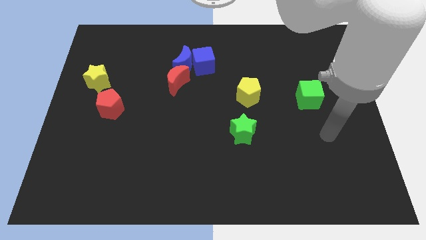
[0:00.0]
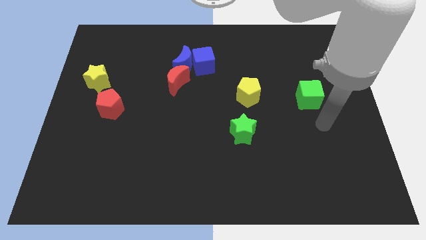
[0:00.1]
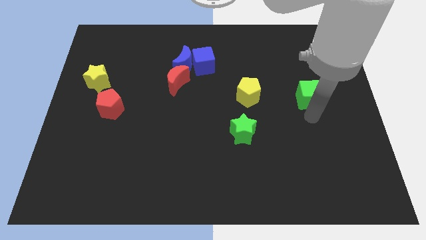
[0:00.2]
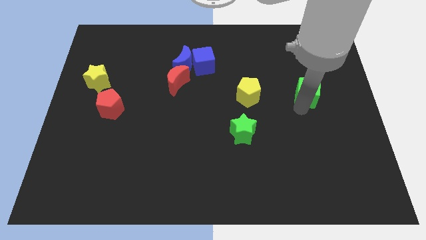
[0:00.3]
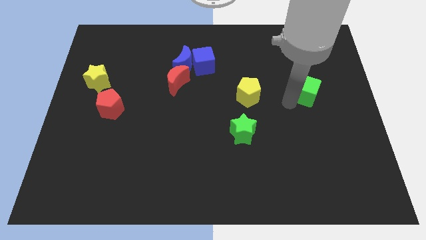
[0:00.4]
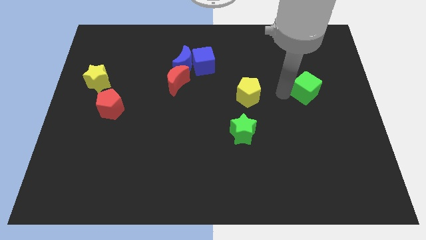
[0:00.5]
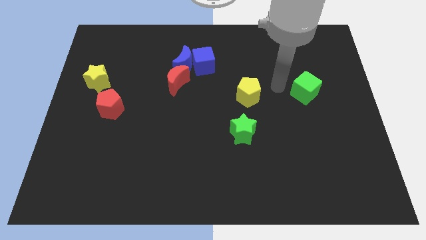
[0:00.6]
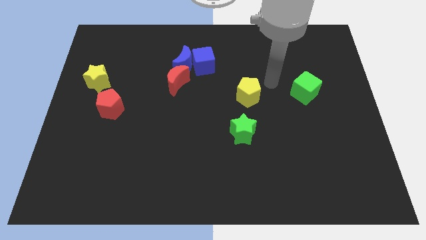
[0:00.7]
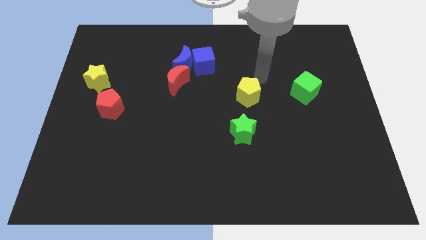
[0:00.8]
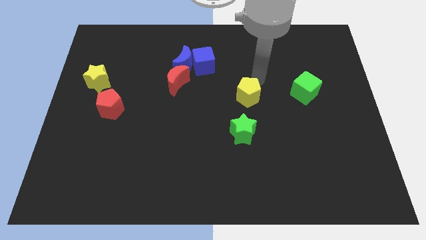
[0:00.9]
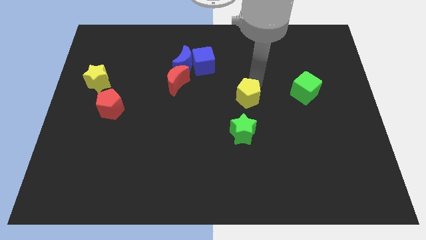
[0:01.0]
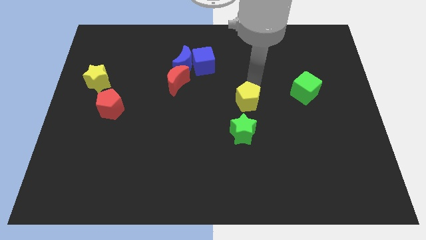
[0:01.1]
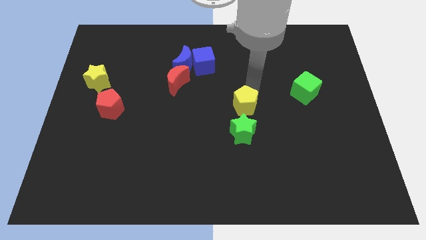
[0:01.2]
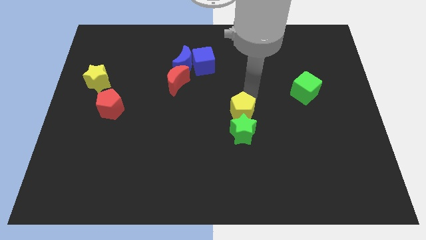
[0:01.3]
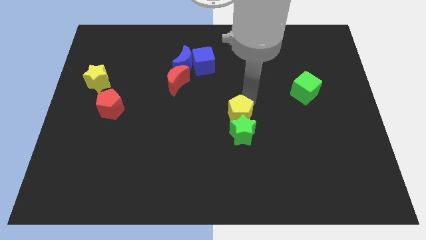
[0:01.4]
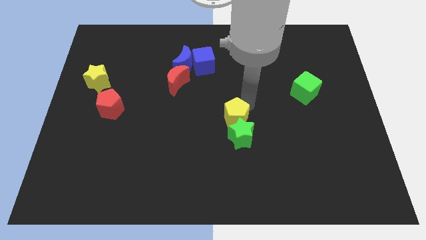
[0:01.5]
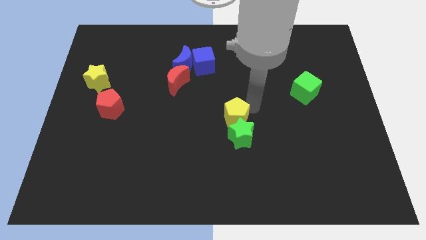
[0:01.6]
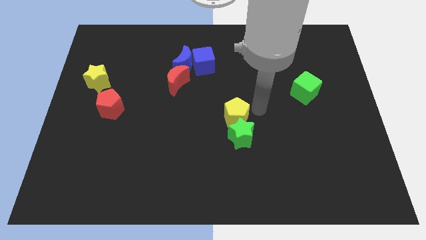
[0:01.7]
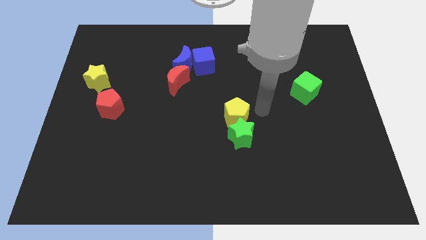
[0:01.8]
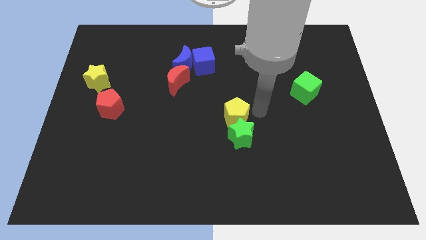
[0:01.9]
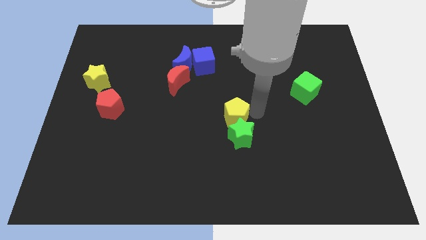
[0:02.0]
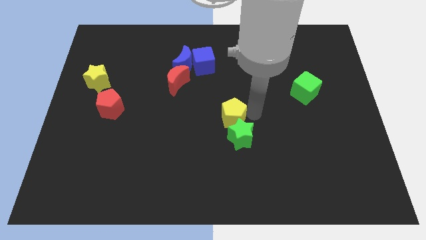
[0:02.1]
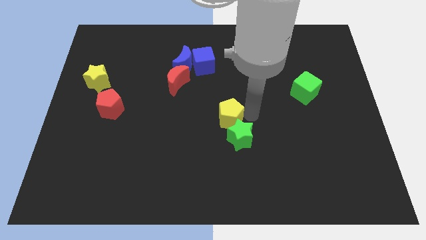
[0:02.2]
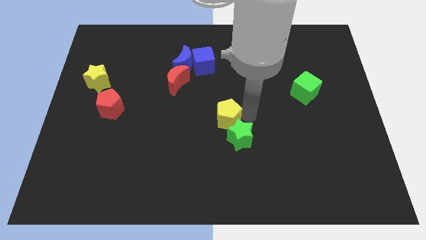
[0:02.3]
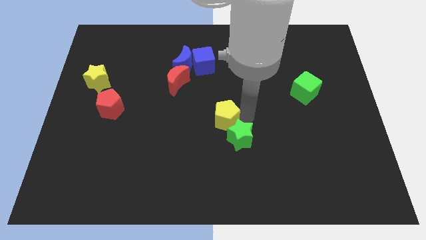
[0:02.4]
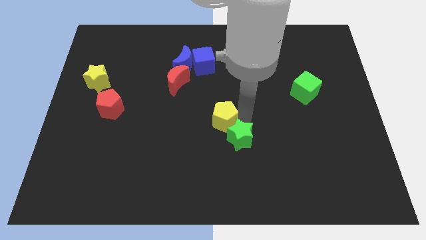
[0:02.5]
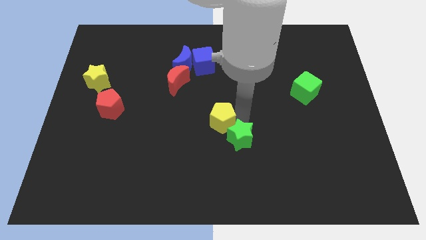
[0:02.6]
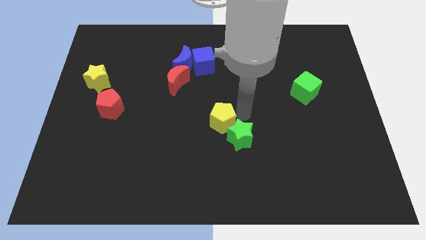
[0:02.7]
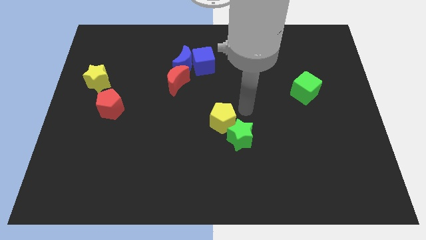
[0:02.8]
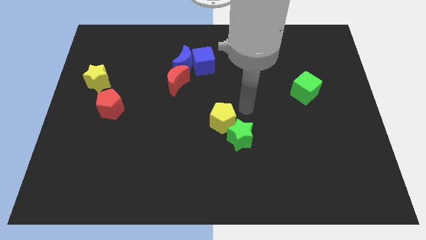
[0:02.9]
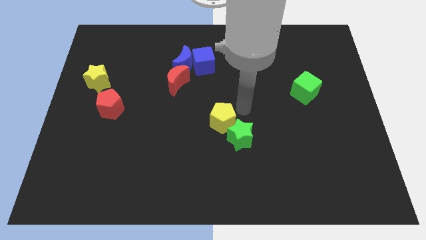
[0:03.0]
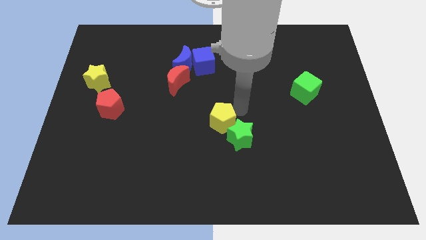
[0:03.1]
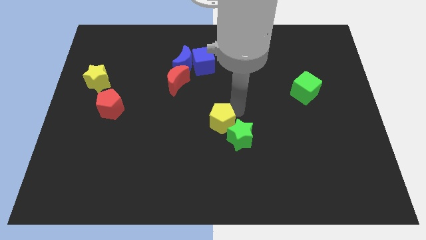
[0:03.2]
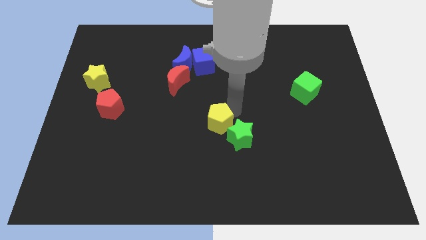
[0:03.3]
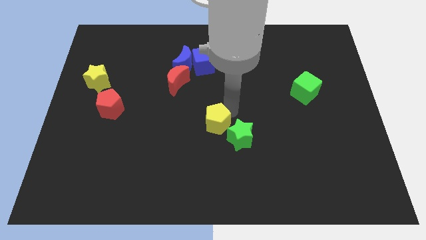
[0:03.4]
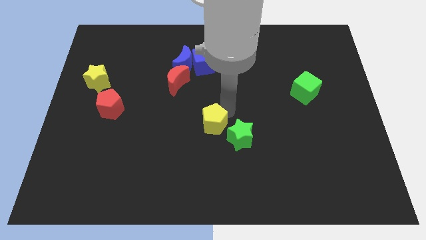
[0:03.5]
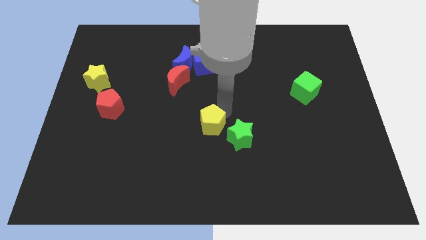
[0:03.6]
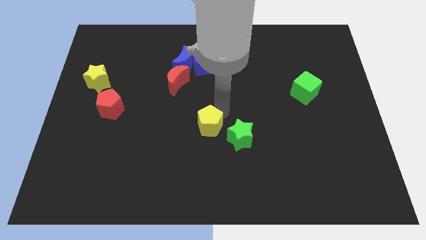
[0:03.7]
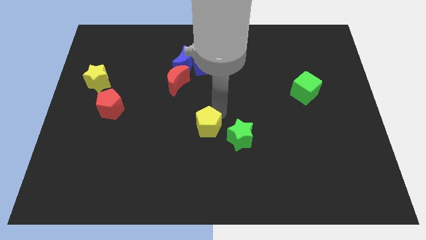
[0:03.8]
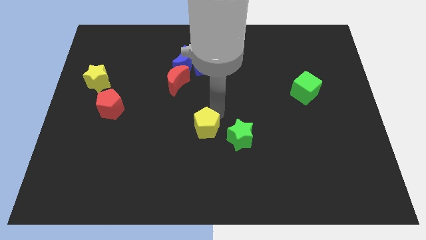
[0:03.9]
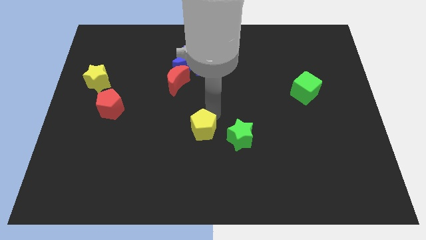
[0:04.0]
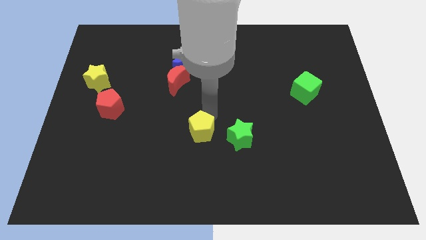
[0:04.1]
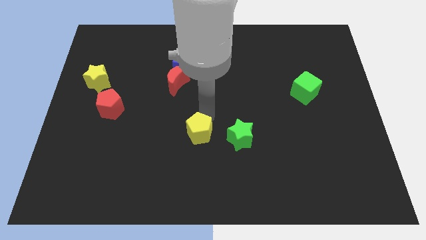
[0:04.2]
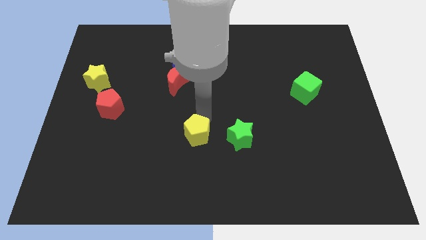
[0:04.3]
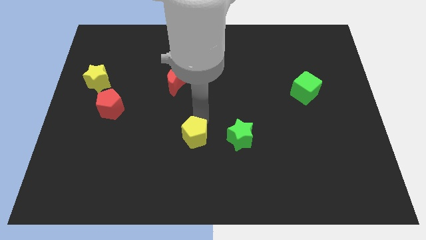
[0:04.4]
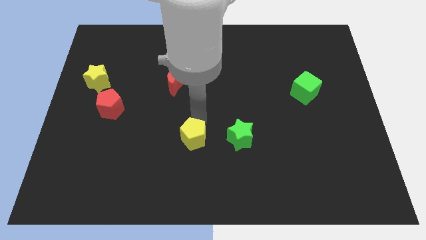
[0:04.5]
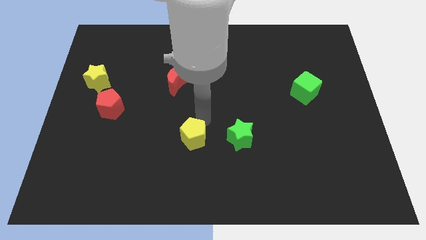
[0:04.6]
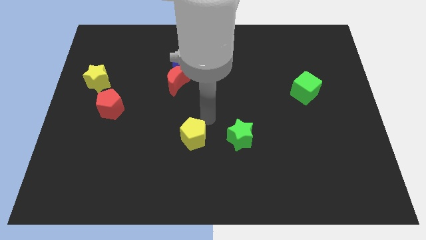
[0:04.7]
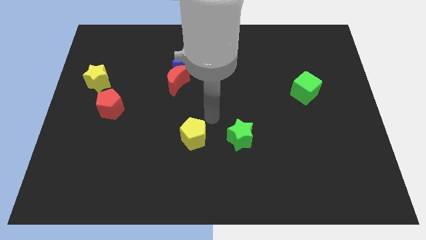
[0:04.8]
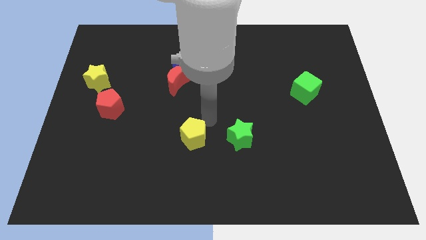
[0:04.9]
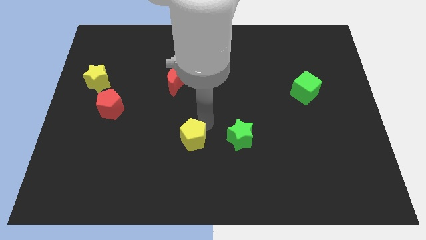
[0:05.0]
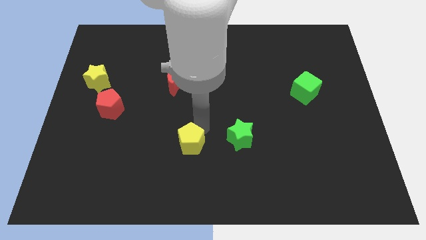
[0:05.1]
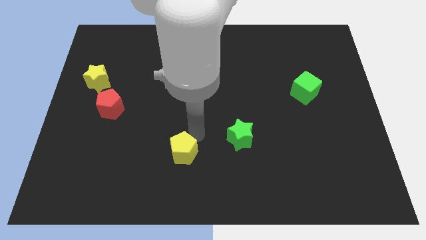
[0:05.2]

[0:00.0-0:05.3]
move the yellow pentagon downwards and left

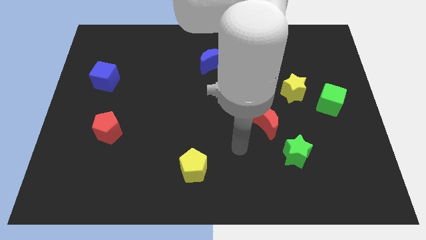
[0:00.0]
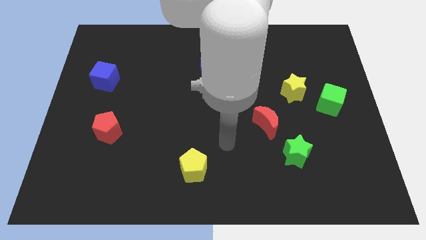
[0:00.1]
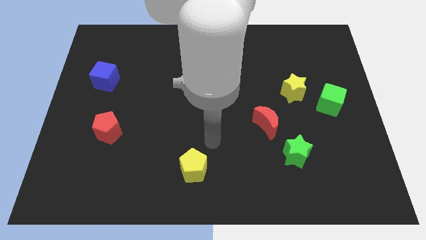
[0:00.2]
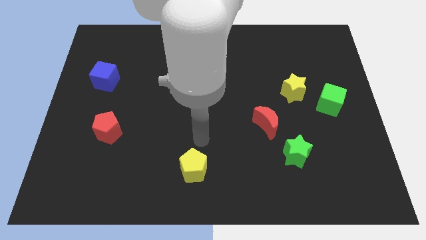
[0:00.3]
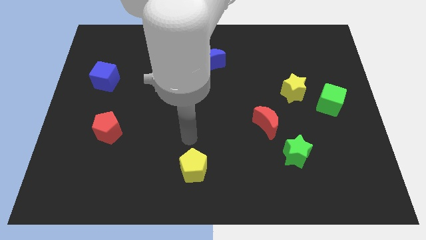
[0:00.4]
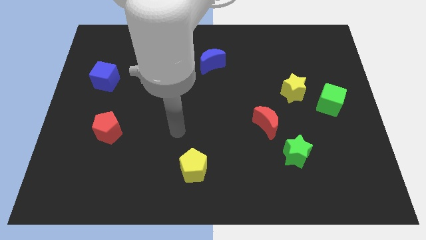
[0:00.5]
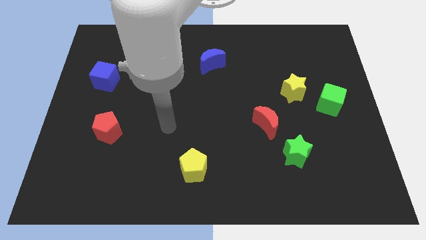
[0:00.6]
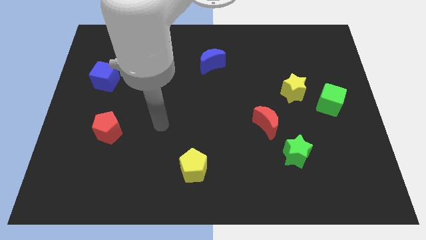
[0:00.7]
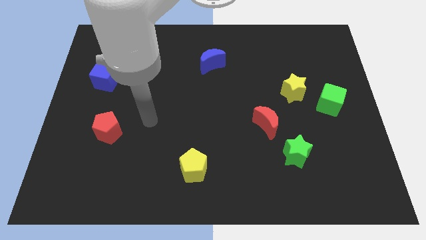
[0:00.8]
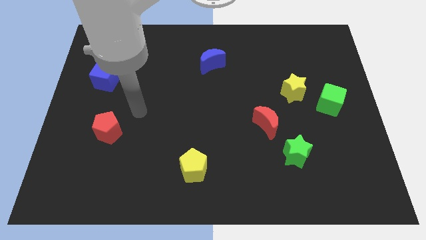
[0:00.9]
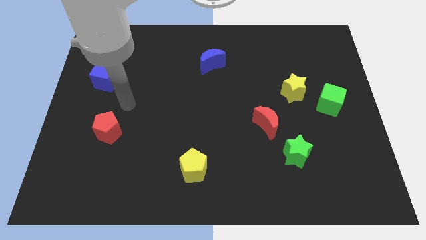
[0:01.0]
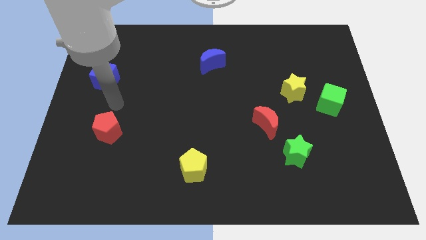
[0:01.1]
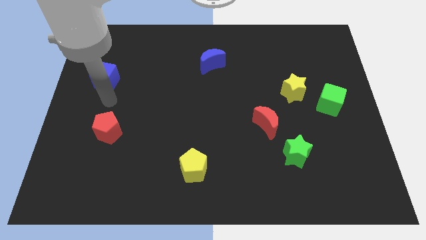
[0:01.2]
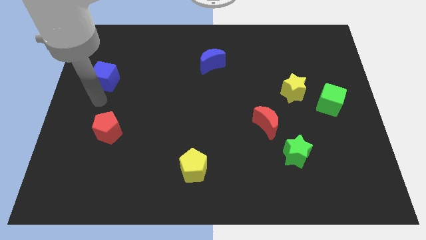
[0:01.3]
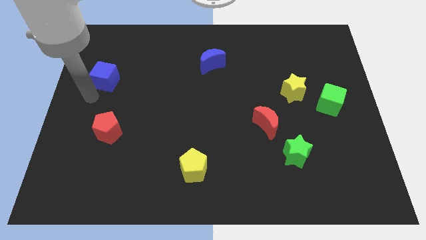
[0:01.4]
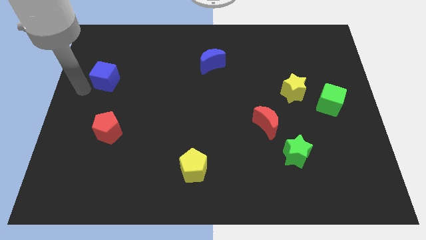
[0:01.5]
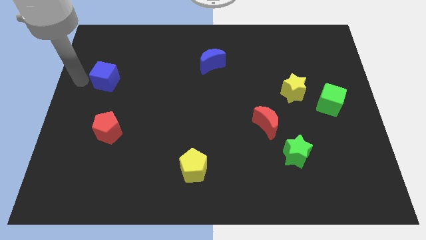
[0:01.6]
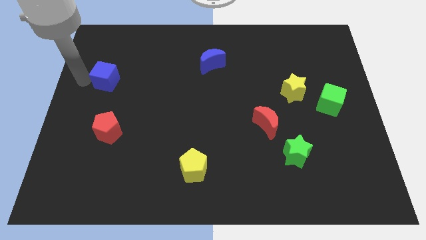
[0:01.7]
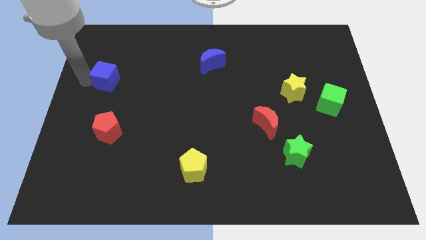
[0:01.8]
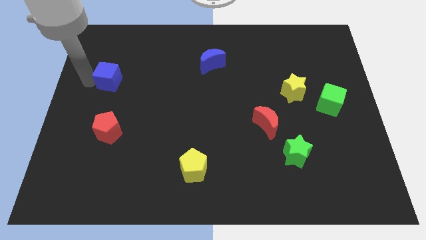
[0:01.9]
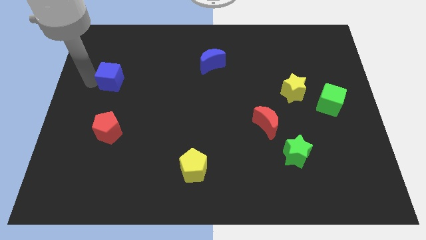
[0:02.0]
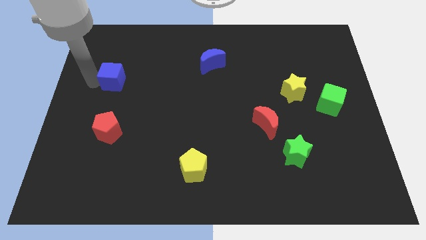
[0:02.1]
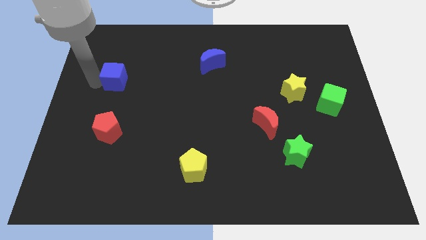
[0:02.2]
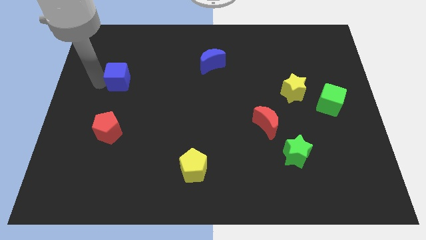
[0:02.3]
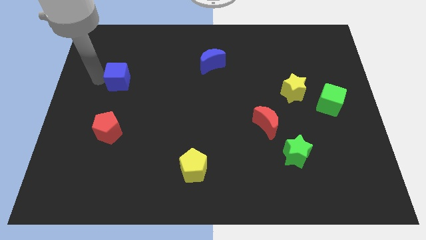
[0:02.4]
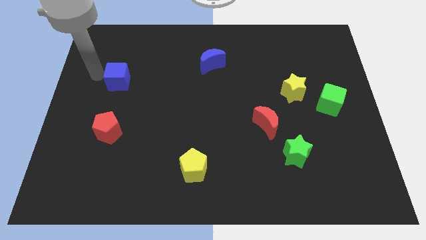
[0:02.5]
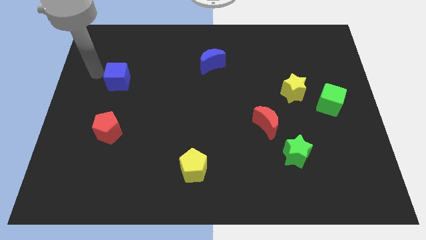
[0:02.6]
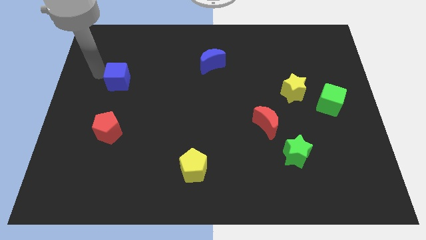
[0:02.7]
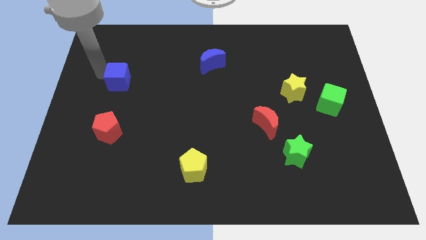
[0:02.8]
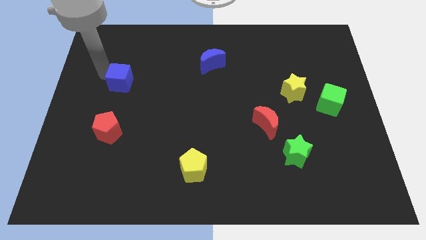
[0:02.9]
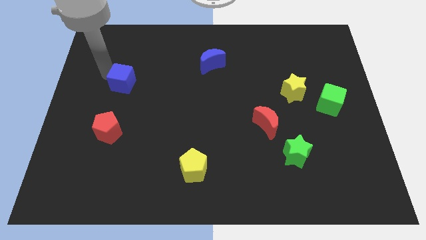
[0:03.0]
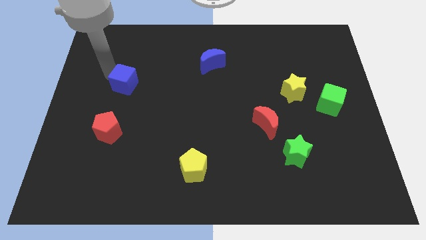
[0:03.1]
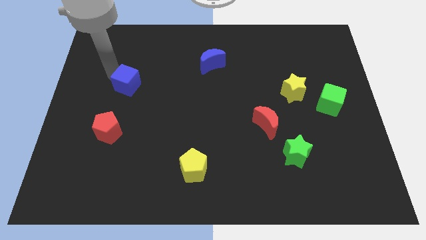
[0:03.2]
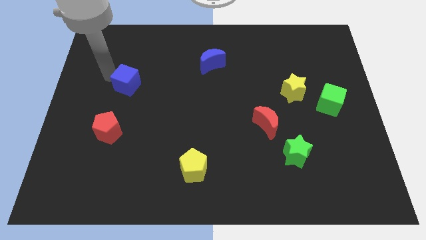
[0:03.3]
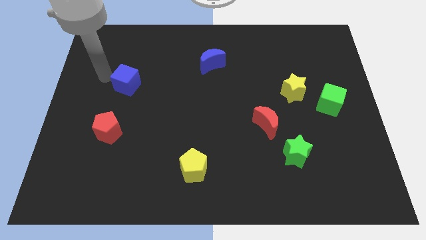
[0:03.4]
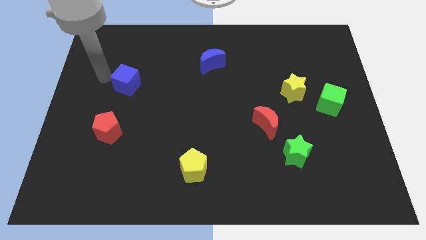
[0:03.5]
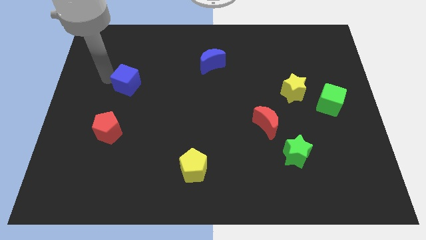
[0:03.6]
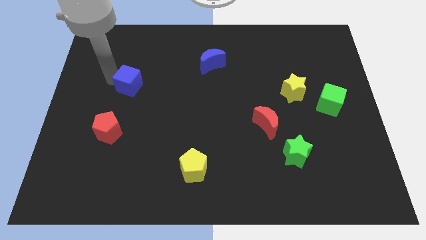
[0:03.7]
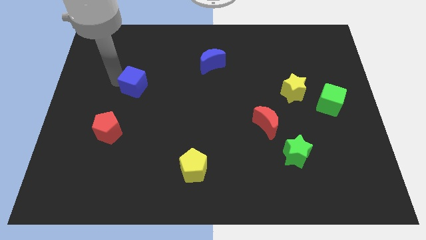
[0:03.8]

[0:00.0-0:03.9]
push the blue cube a little right
